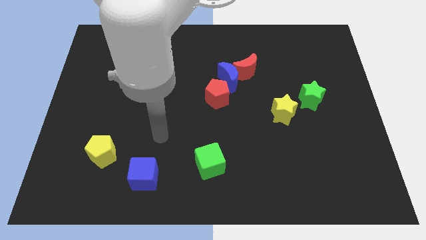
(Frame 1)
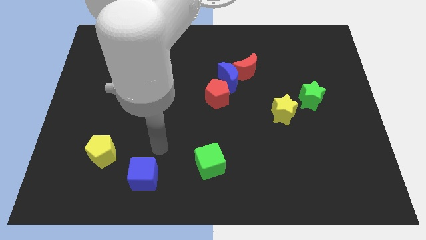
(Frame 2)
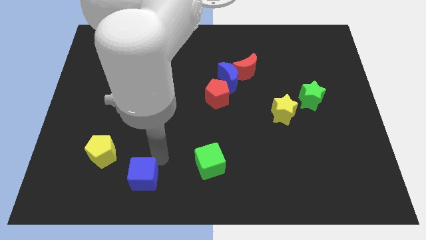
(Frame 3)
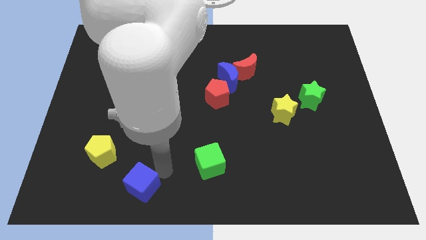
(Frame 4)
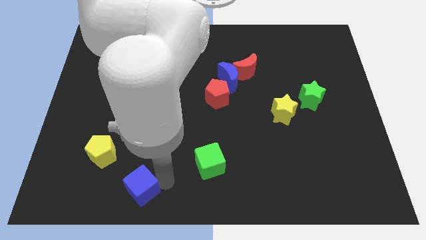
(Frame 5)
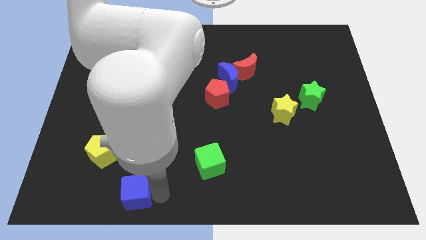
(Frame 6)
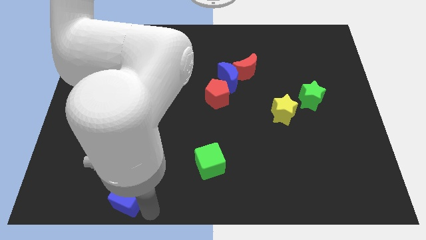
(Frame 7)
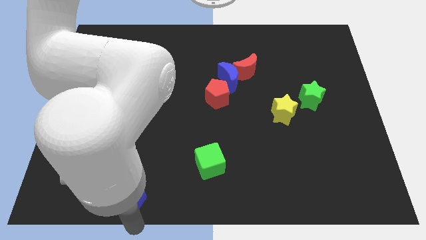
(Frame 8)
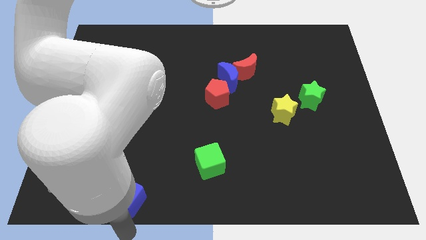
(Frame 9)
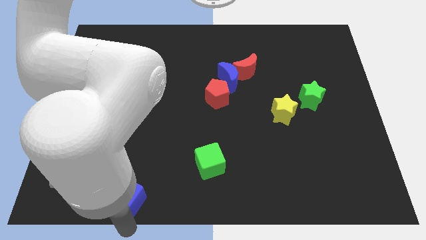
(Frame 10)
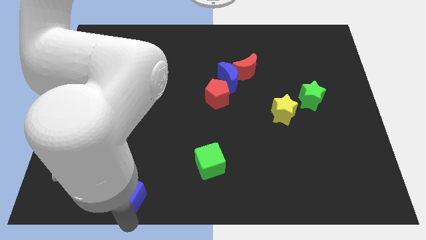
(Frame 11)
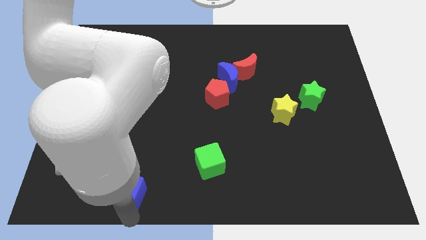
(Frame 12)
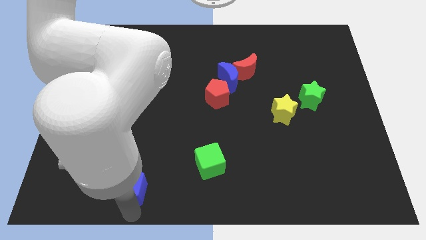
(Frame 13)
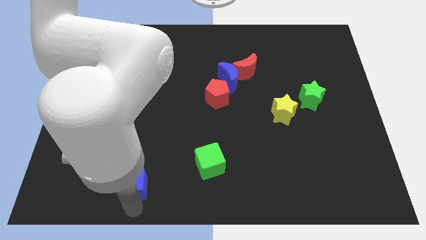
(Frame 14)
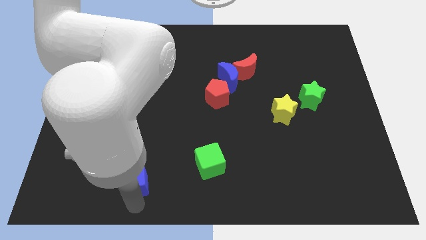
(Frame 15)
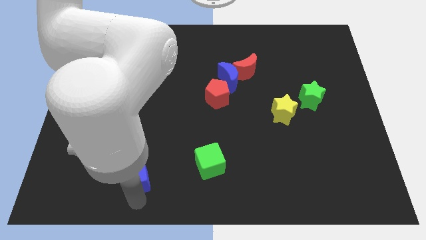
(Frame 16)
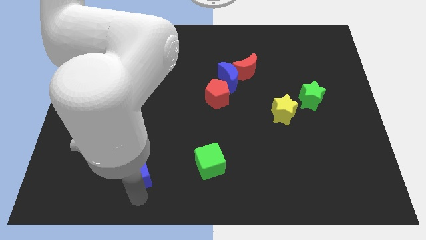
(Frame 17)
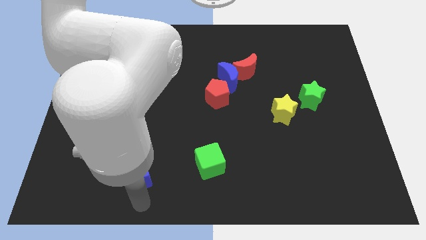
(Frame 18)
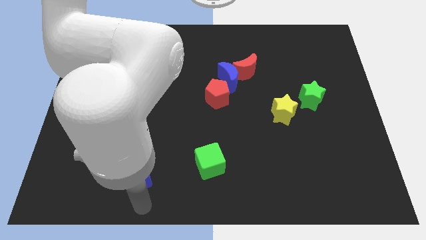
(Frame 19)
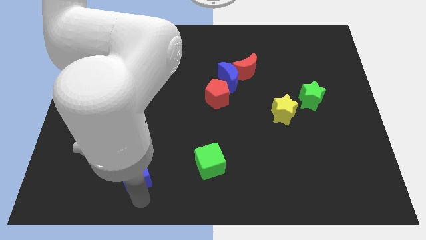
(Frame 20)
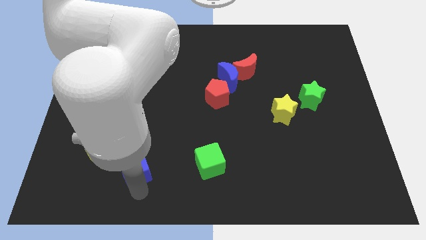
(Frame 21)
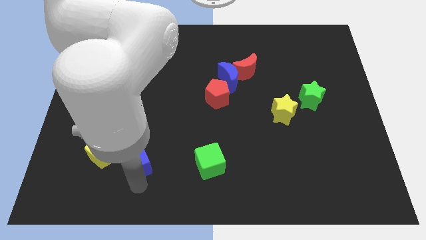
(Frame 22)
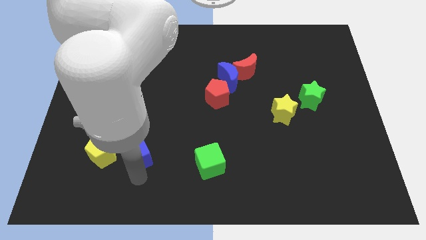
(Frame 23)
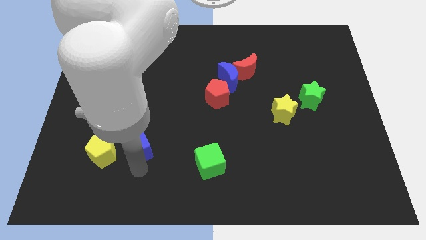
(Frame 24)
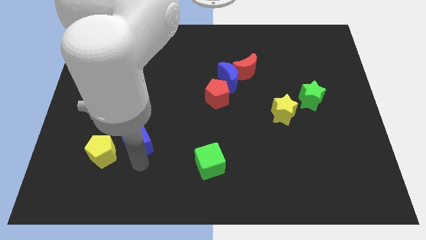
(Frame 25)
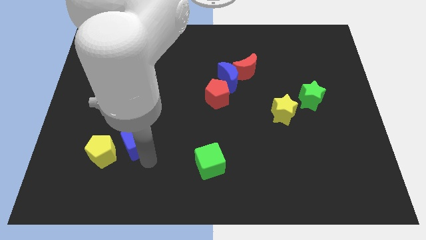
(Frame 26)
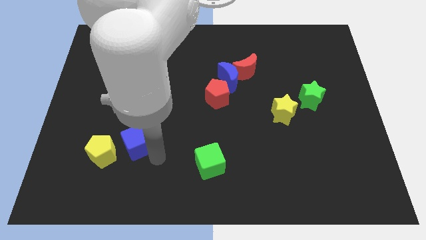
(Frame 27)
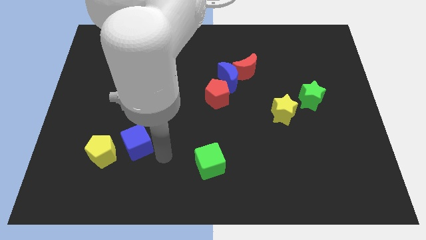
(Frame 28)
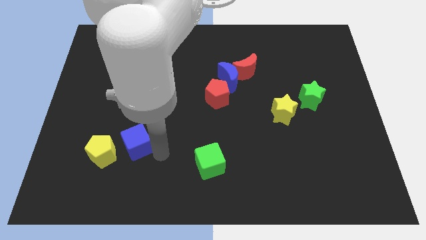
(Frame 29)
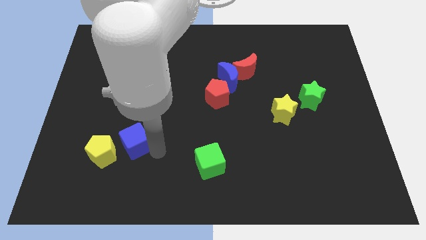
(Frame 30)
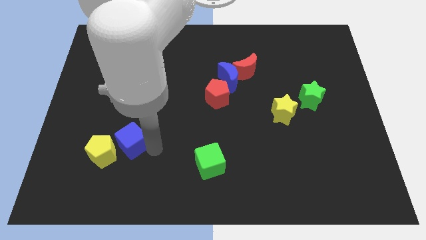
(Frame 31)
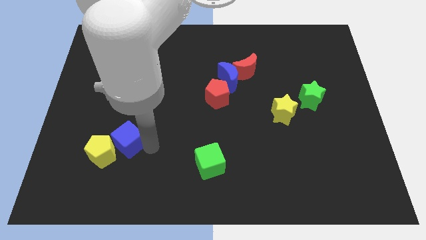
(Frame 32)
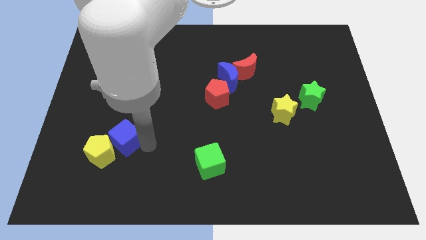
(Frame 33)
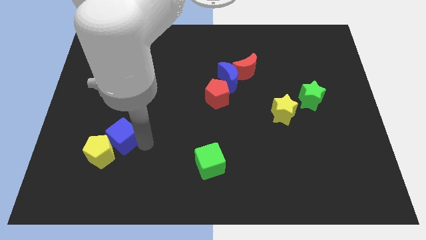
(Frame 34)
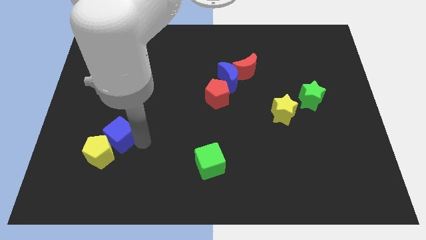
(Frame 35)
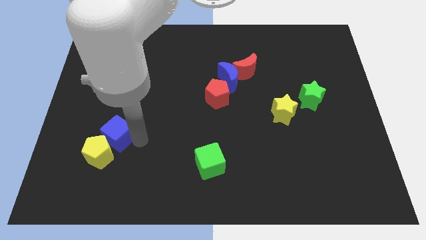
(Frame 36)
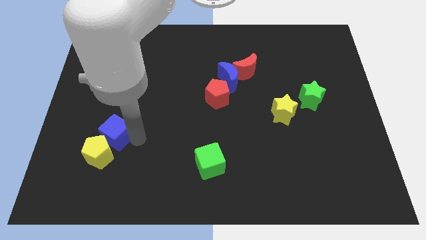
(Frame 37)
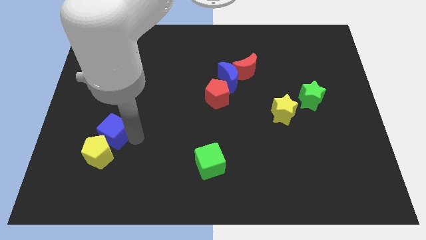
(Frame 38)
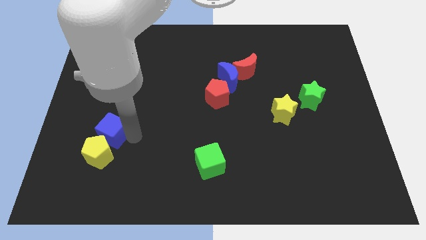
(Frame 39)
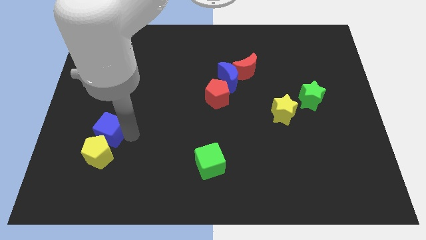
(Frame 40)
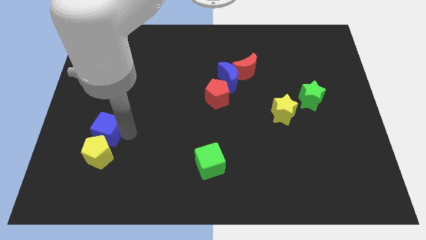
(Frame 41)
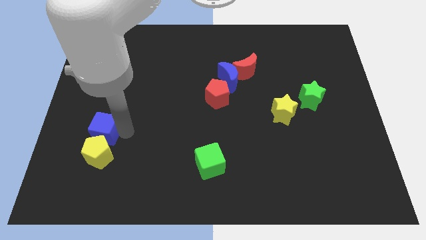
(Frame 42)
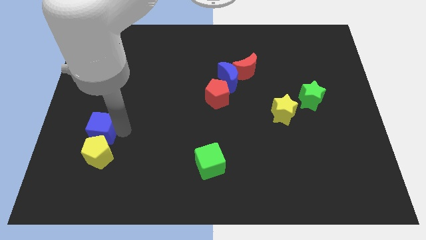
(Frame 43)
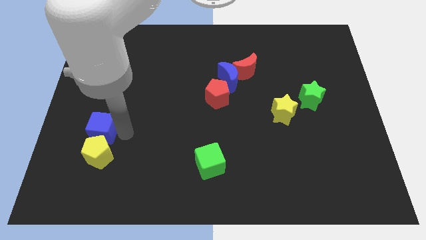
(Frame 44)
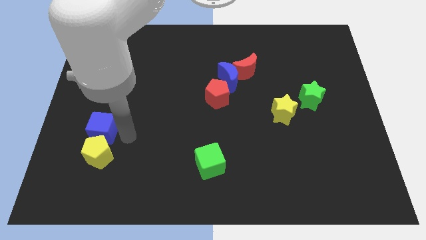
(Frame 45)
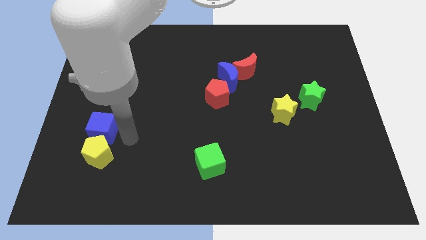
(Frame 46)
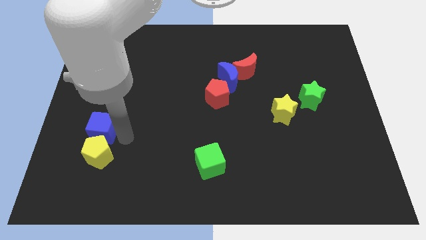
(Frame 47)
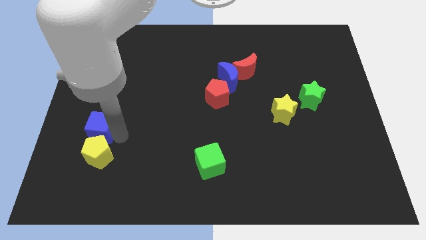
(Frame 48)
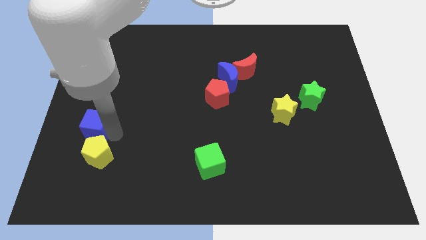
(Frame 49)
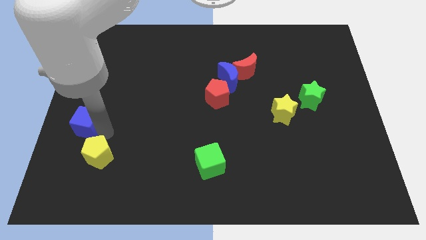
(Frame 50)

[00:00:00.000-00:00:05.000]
push the blue cube to the center left

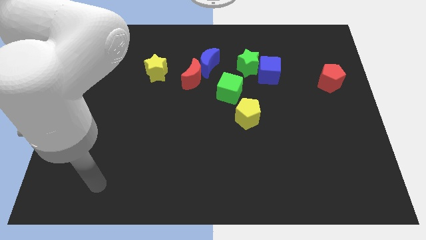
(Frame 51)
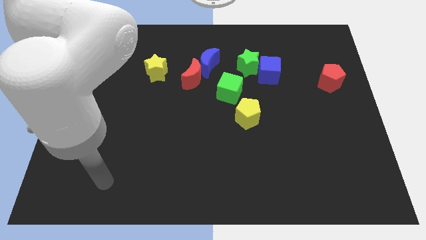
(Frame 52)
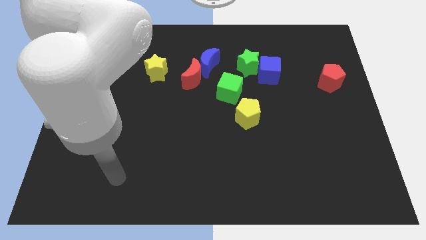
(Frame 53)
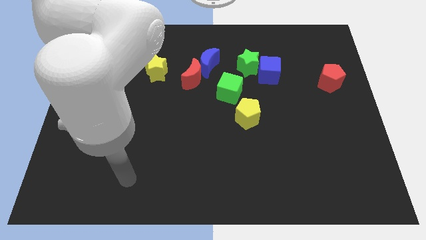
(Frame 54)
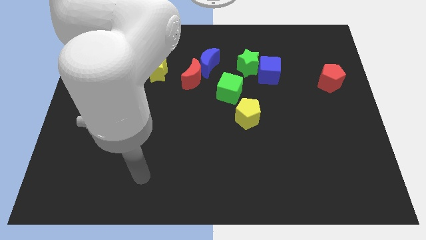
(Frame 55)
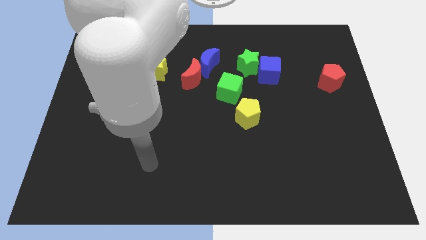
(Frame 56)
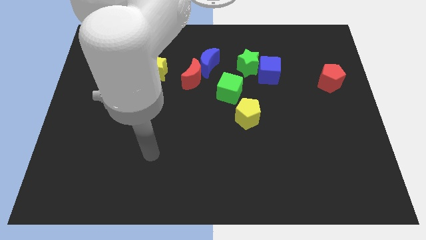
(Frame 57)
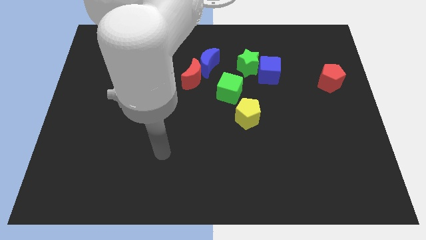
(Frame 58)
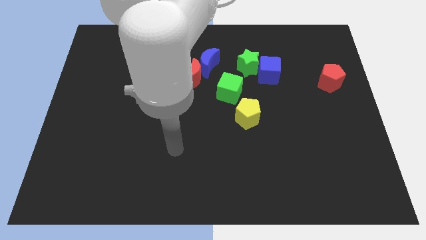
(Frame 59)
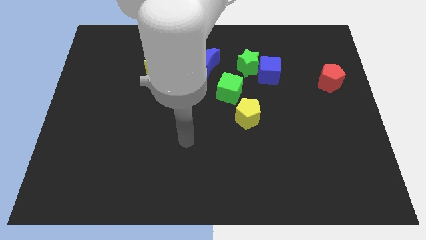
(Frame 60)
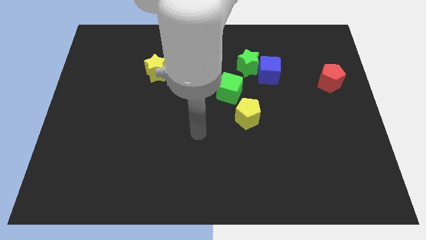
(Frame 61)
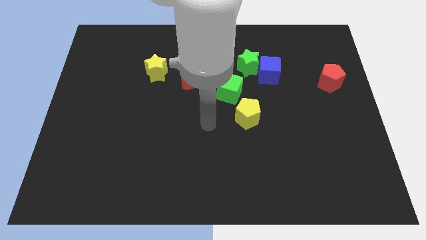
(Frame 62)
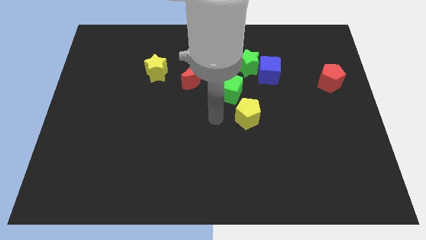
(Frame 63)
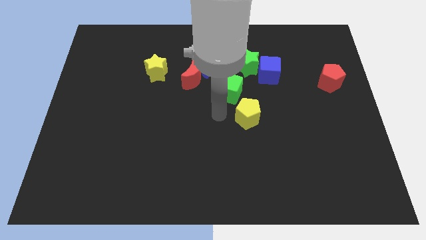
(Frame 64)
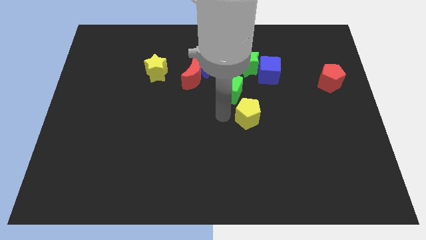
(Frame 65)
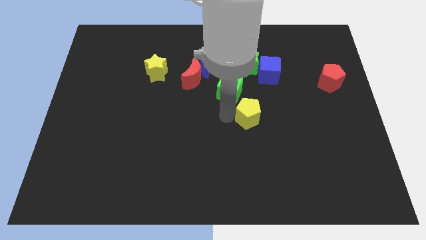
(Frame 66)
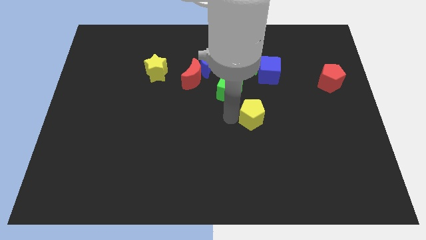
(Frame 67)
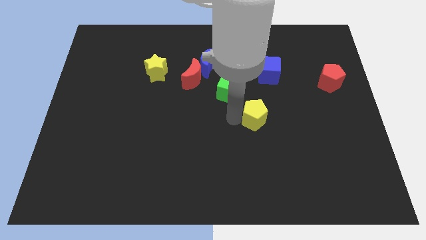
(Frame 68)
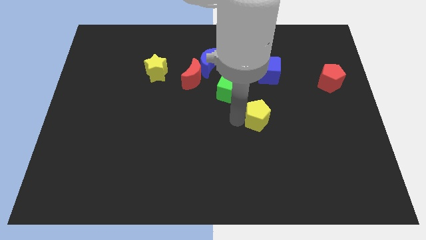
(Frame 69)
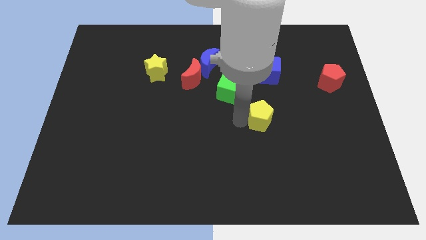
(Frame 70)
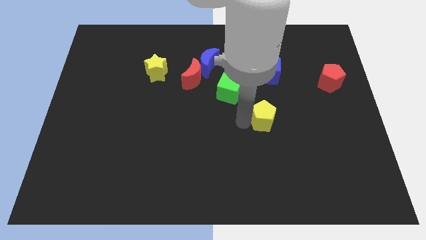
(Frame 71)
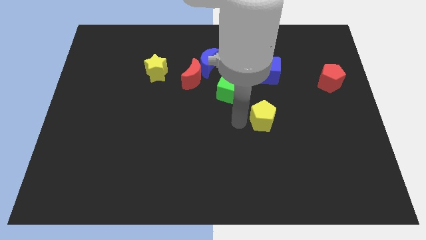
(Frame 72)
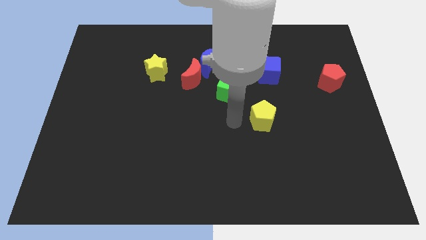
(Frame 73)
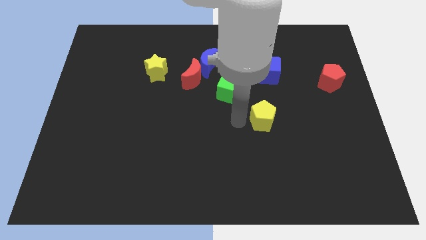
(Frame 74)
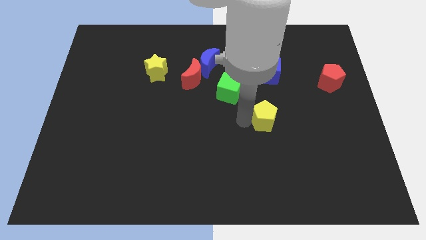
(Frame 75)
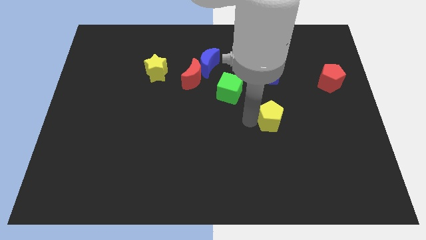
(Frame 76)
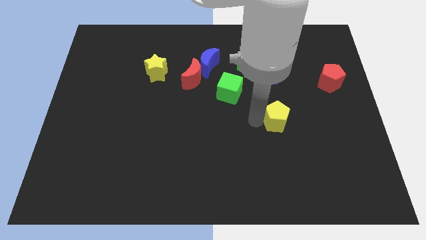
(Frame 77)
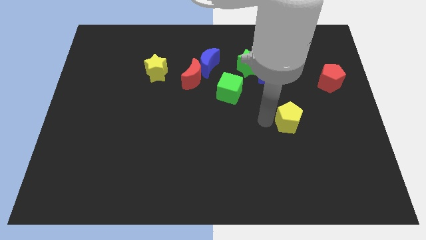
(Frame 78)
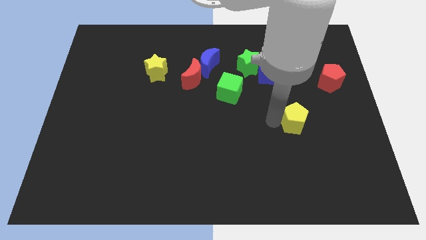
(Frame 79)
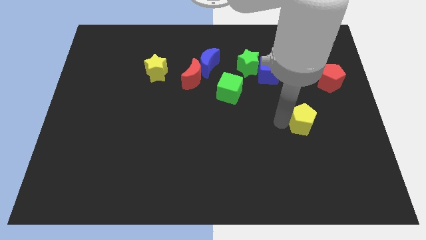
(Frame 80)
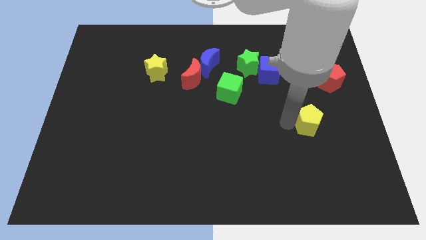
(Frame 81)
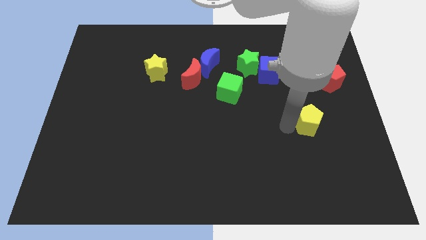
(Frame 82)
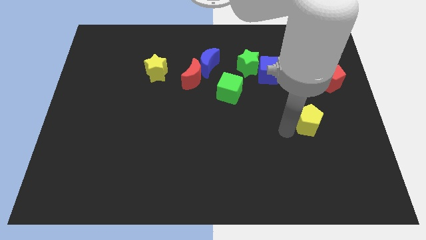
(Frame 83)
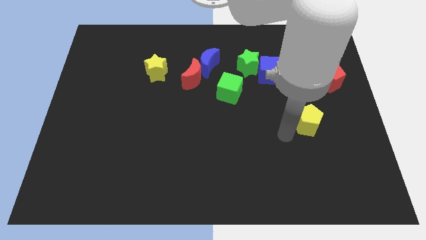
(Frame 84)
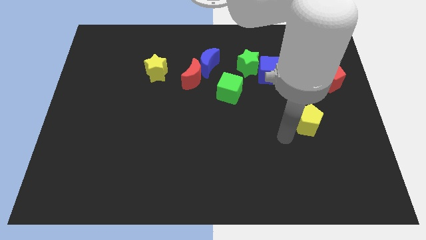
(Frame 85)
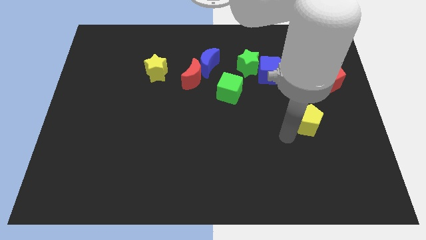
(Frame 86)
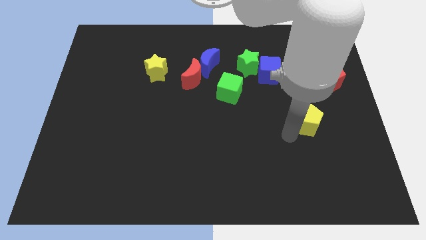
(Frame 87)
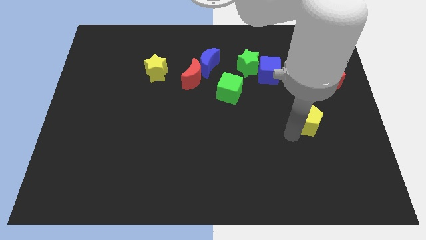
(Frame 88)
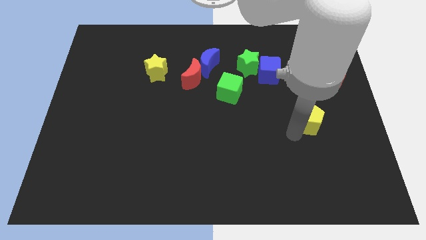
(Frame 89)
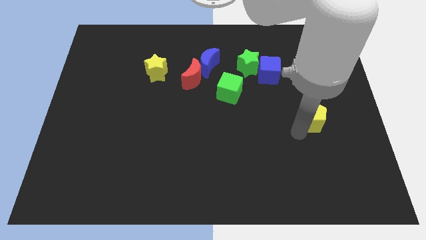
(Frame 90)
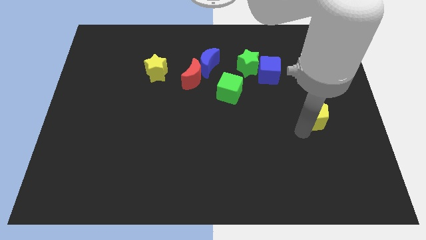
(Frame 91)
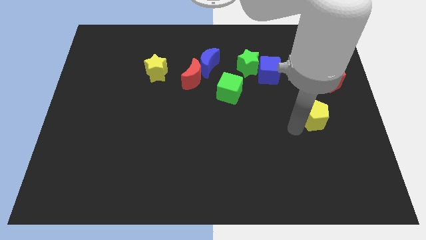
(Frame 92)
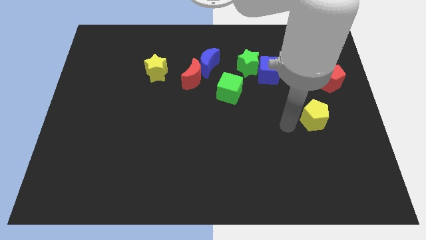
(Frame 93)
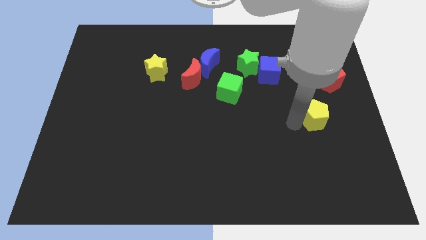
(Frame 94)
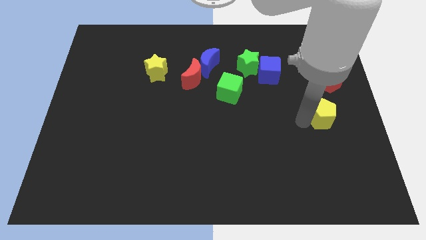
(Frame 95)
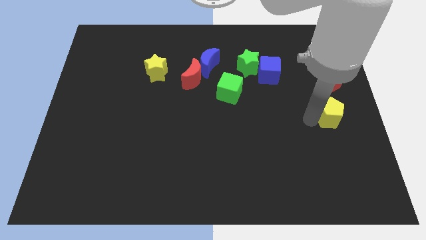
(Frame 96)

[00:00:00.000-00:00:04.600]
slide the yellow pentagon to the right side
